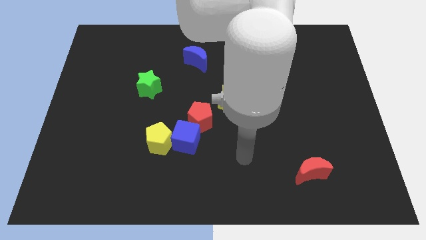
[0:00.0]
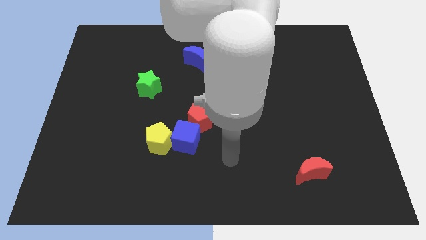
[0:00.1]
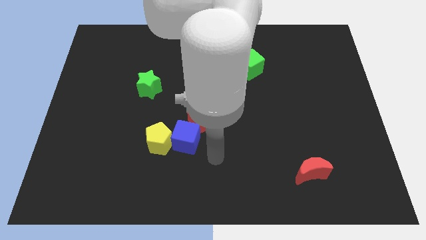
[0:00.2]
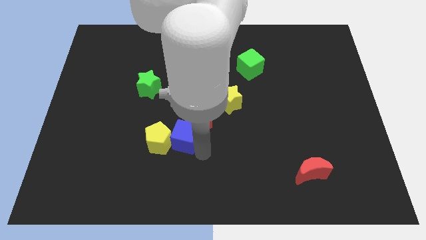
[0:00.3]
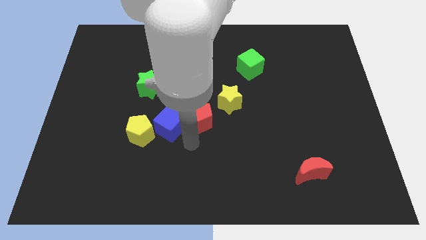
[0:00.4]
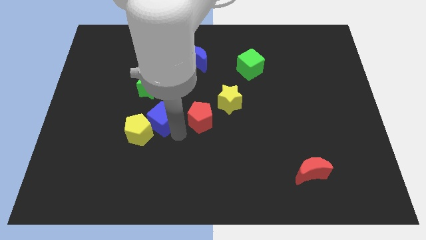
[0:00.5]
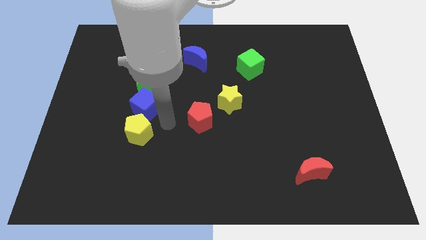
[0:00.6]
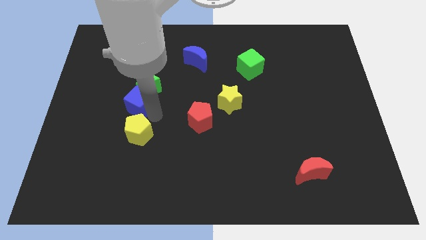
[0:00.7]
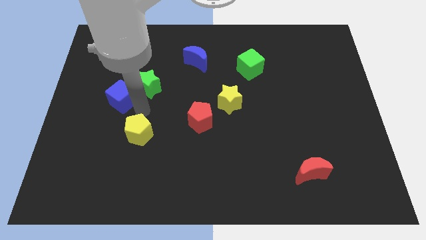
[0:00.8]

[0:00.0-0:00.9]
separate the yellow pentagon from the blue cube

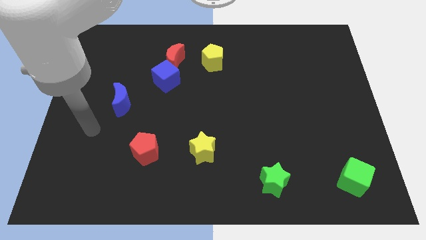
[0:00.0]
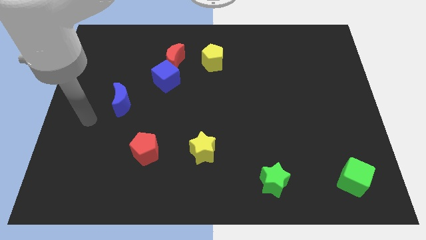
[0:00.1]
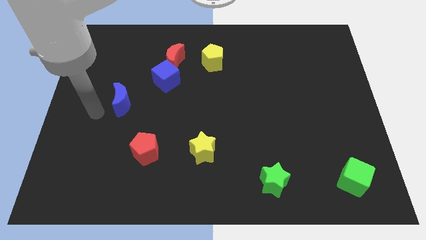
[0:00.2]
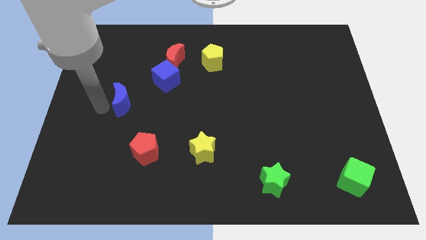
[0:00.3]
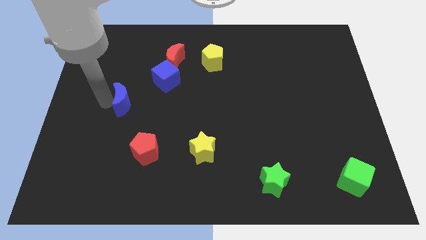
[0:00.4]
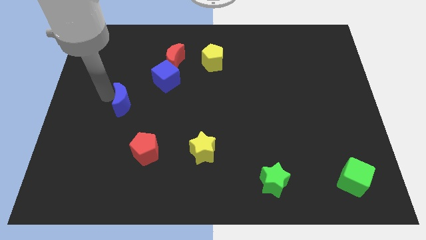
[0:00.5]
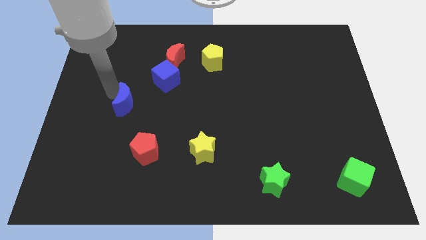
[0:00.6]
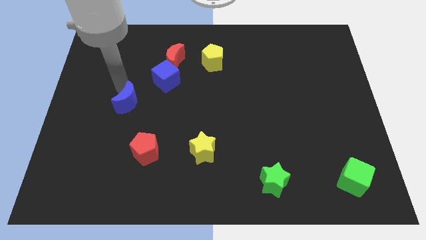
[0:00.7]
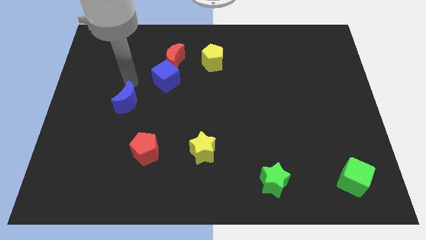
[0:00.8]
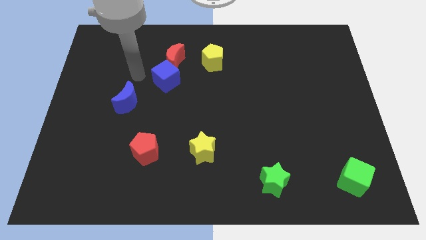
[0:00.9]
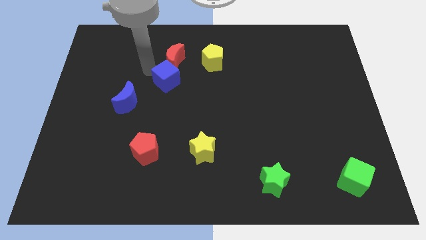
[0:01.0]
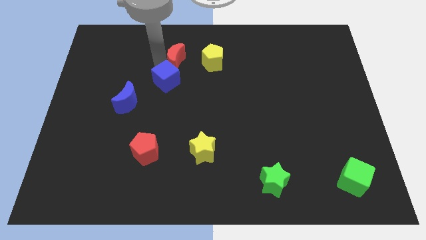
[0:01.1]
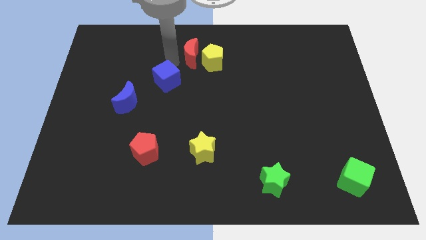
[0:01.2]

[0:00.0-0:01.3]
separate the blue cube from the red moon

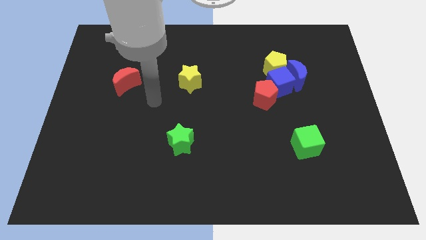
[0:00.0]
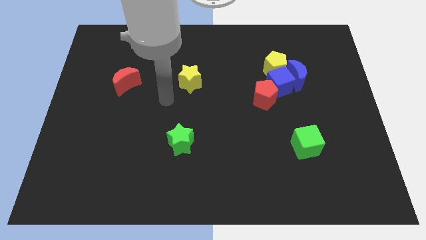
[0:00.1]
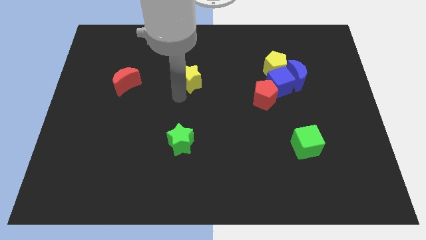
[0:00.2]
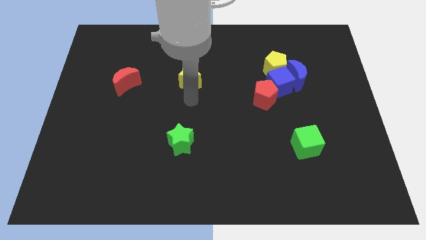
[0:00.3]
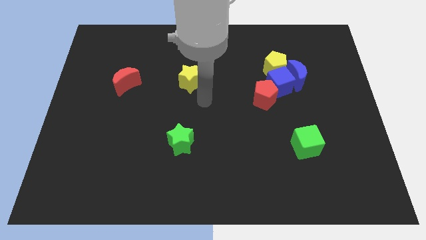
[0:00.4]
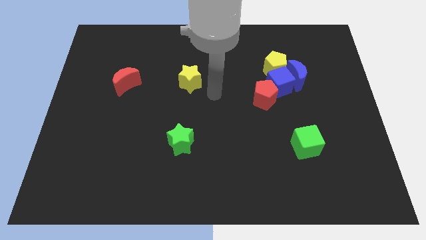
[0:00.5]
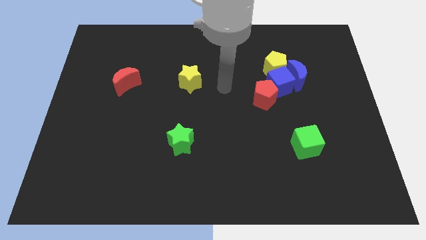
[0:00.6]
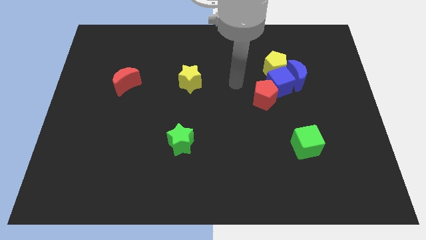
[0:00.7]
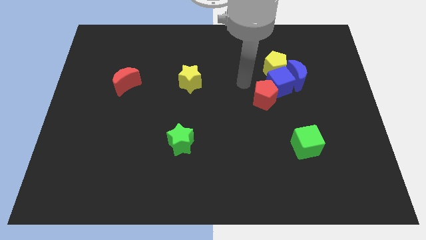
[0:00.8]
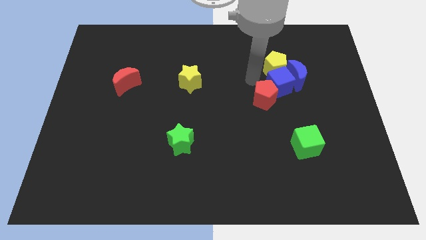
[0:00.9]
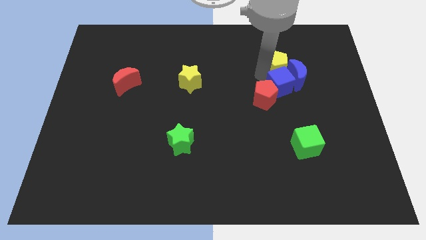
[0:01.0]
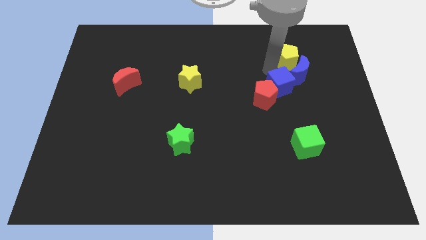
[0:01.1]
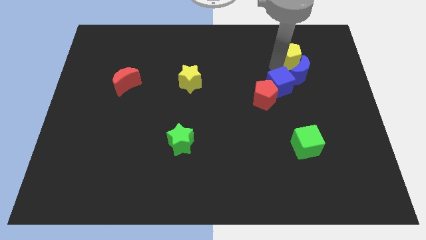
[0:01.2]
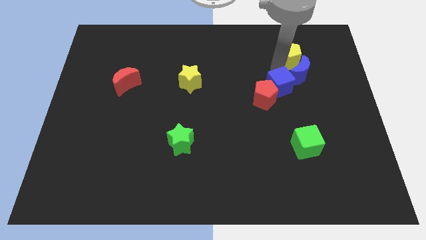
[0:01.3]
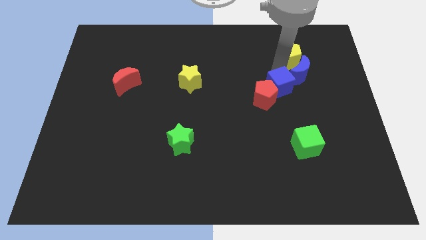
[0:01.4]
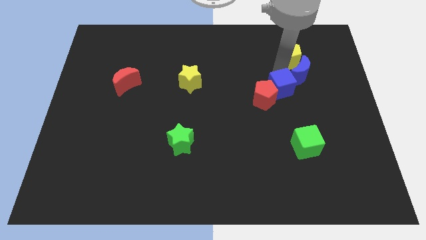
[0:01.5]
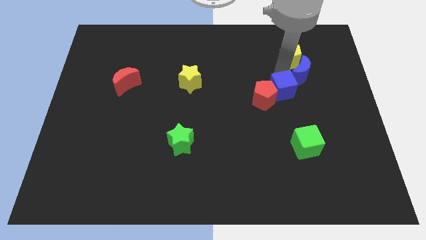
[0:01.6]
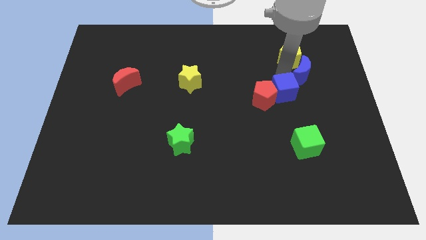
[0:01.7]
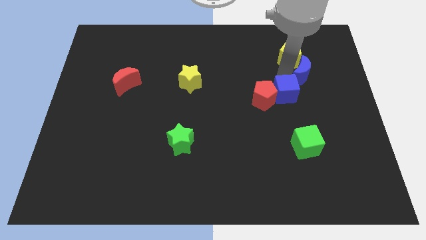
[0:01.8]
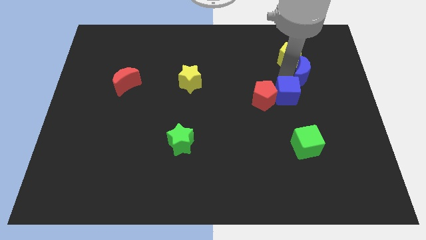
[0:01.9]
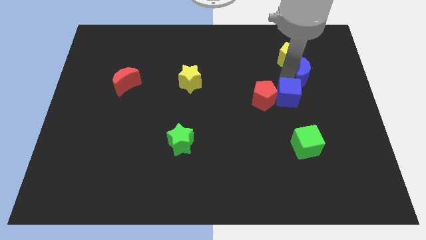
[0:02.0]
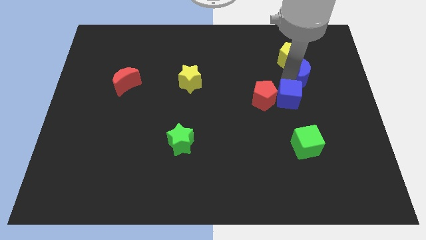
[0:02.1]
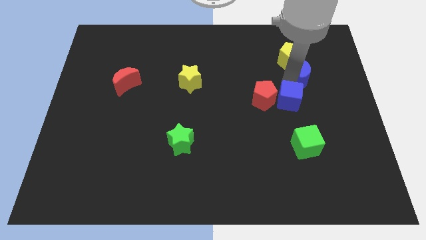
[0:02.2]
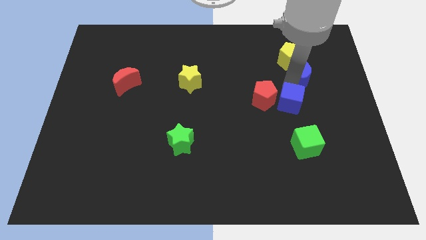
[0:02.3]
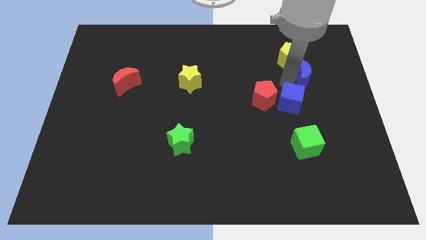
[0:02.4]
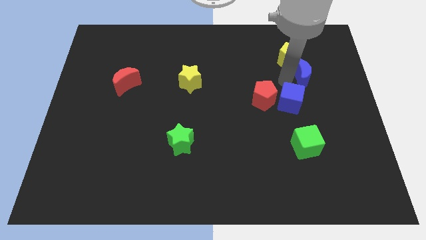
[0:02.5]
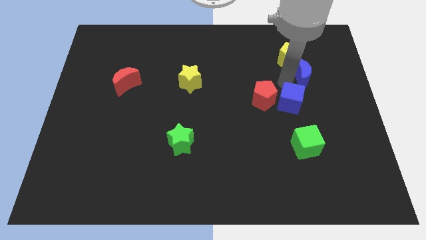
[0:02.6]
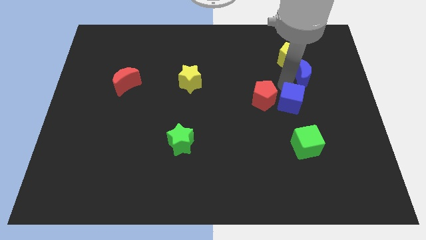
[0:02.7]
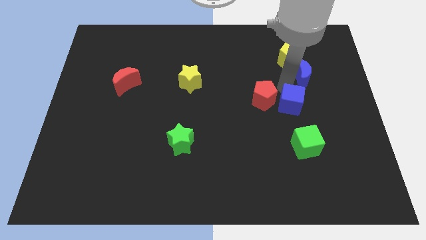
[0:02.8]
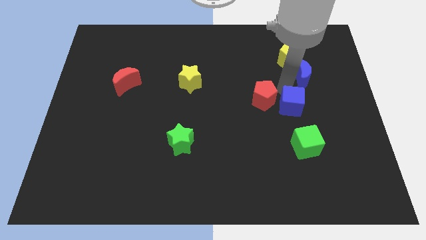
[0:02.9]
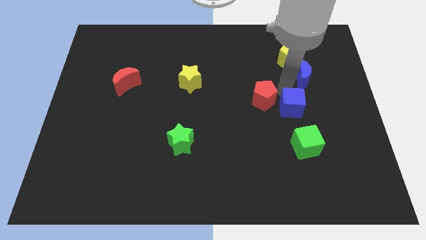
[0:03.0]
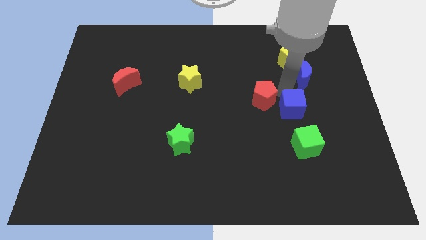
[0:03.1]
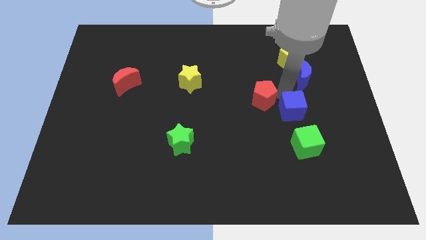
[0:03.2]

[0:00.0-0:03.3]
move the blue cube away from the blue moon, yellow pentagon, and red pentagon

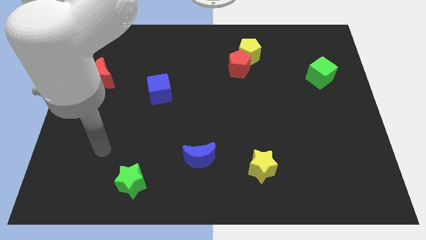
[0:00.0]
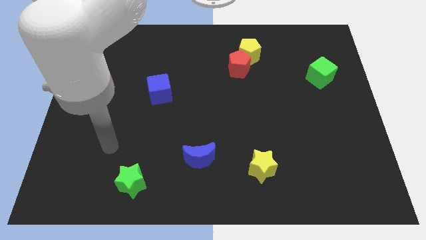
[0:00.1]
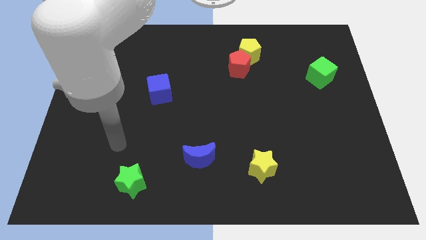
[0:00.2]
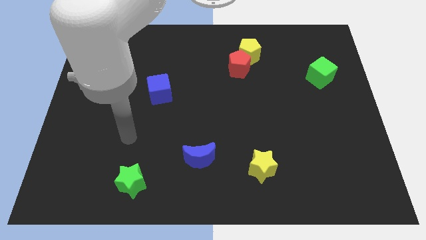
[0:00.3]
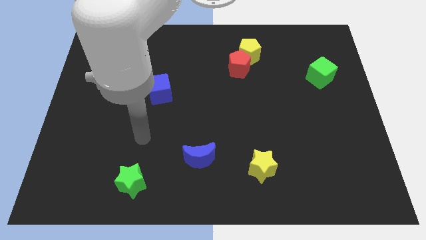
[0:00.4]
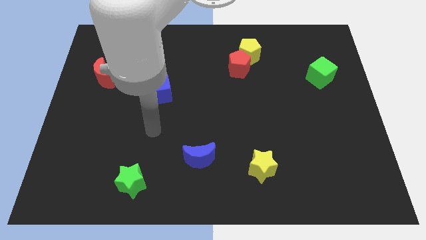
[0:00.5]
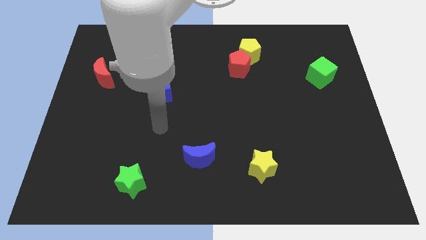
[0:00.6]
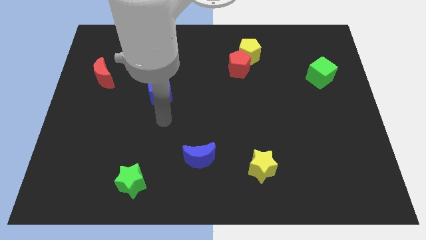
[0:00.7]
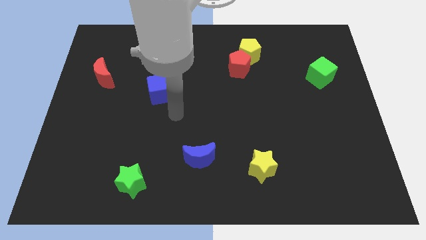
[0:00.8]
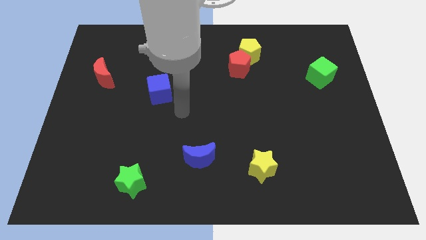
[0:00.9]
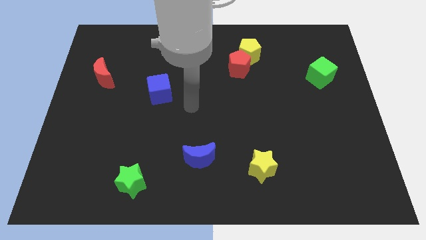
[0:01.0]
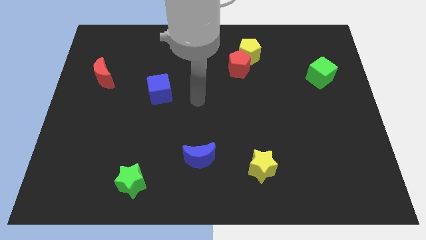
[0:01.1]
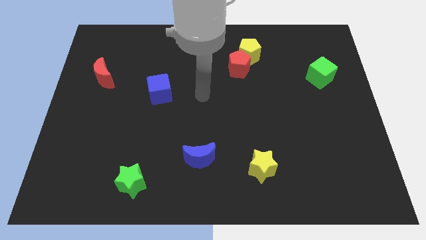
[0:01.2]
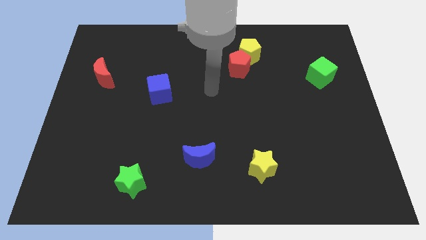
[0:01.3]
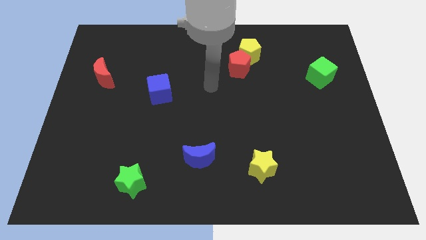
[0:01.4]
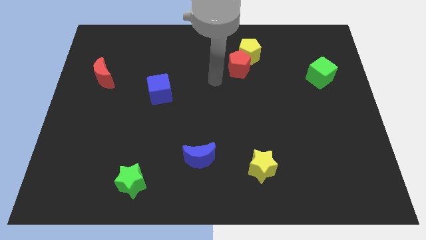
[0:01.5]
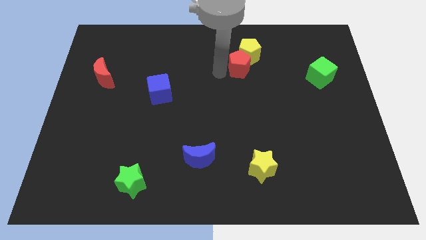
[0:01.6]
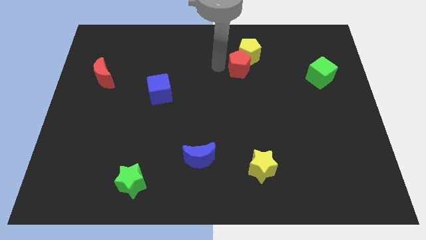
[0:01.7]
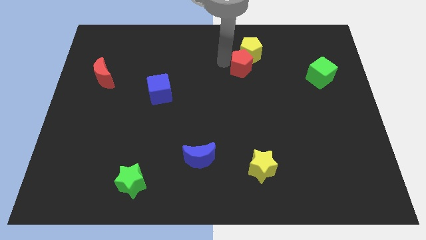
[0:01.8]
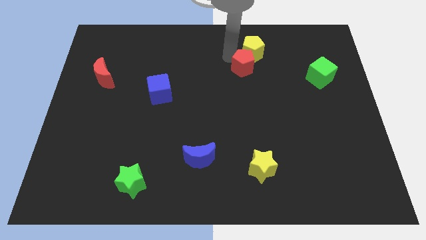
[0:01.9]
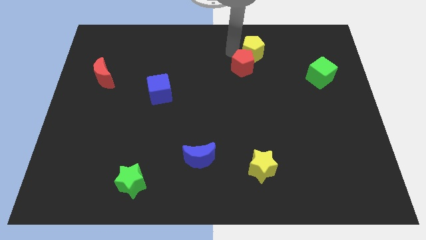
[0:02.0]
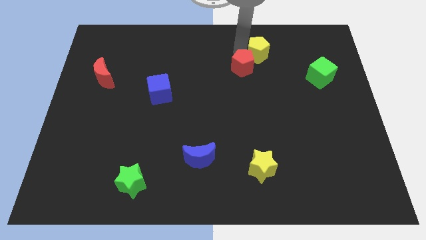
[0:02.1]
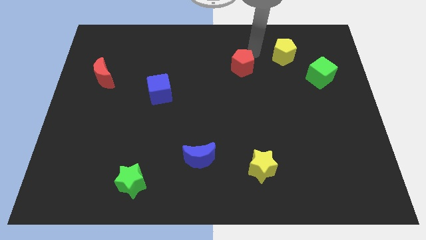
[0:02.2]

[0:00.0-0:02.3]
pull the red pentagon apart from the yellow pentagon

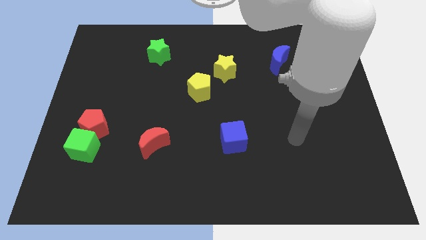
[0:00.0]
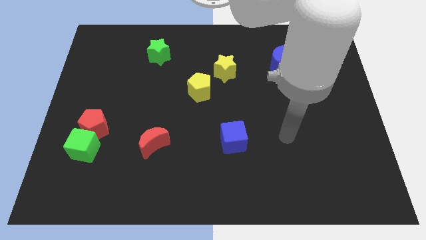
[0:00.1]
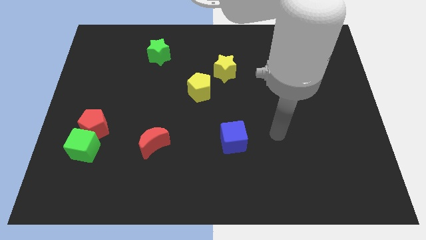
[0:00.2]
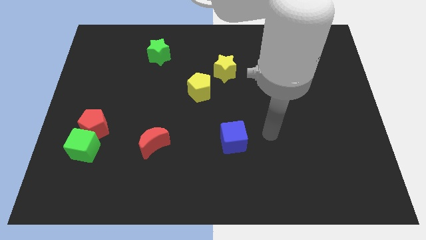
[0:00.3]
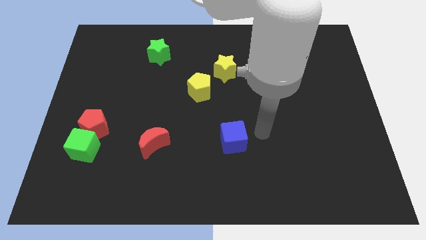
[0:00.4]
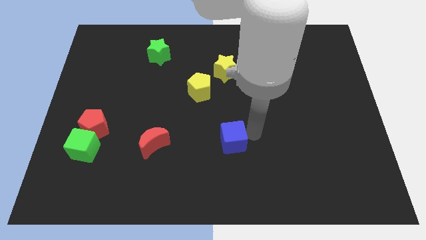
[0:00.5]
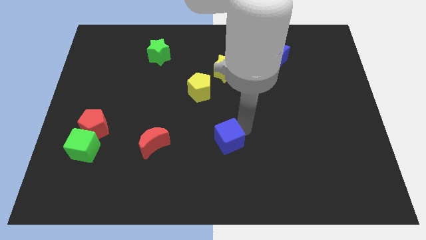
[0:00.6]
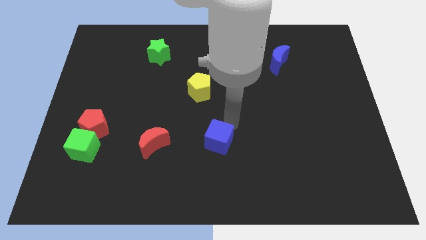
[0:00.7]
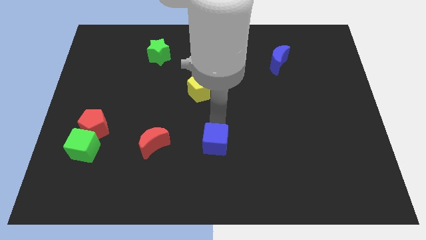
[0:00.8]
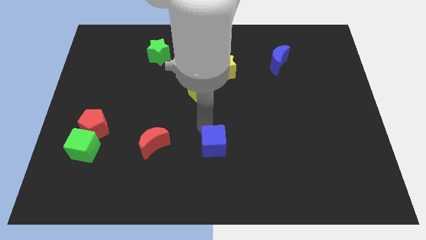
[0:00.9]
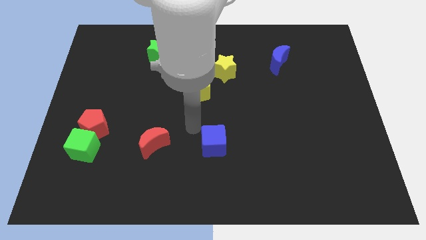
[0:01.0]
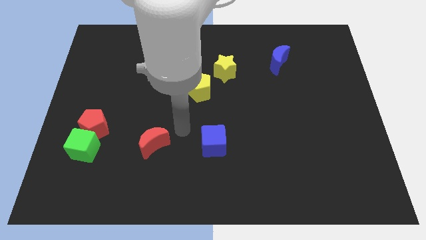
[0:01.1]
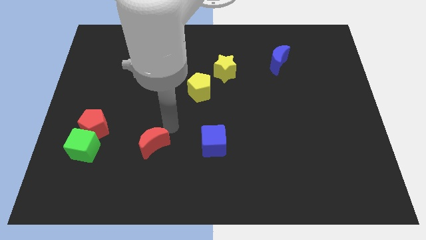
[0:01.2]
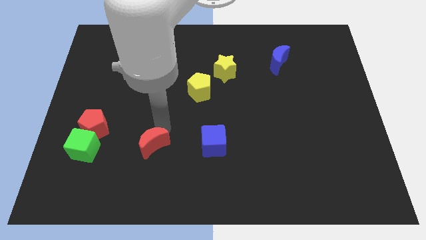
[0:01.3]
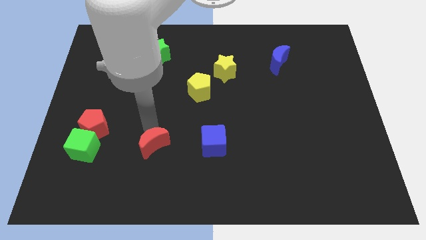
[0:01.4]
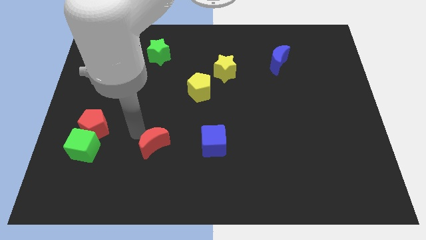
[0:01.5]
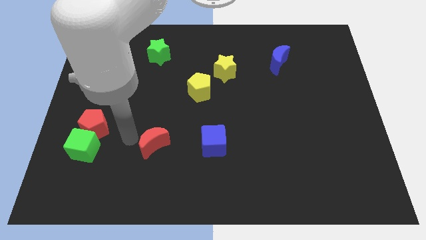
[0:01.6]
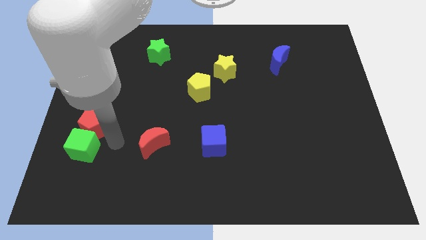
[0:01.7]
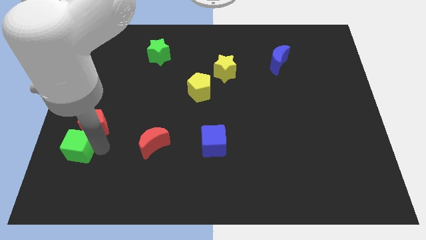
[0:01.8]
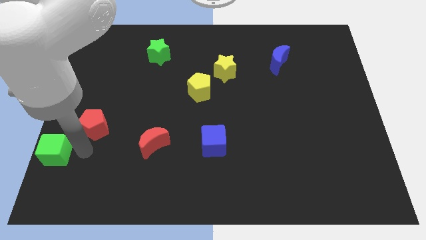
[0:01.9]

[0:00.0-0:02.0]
pull the red pentagon apart from the green cube
